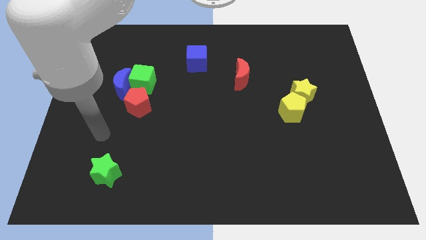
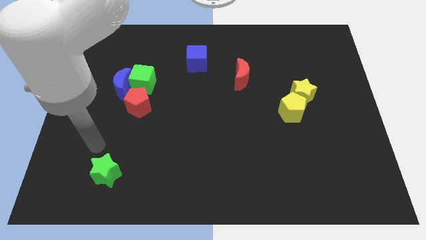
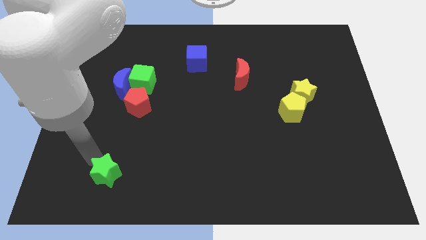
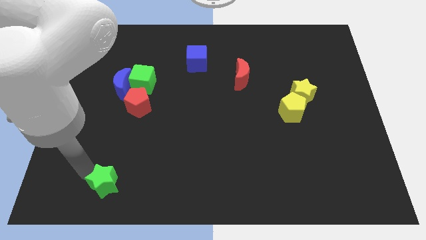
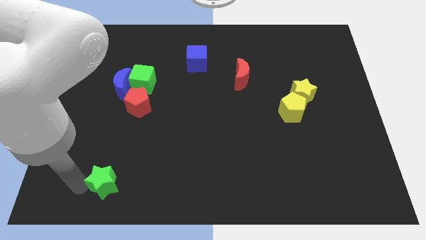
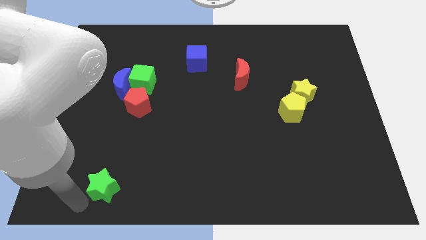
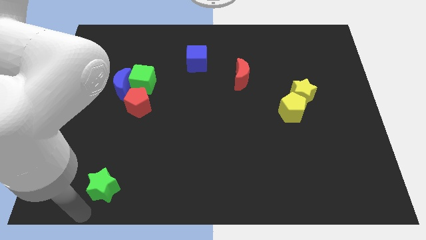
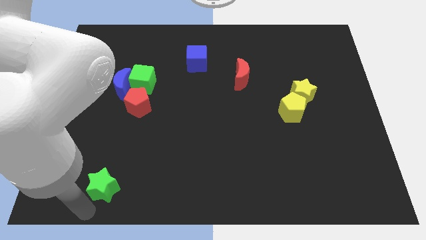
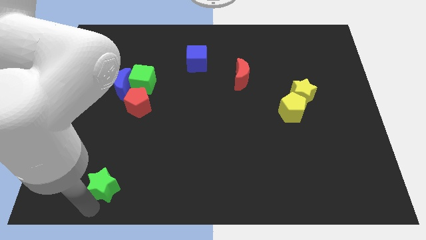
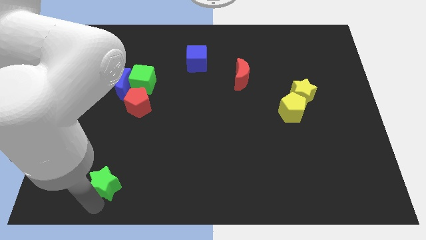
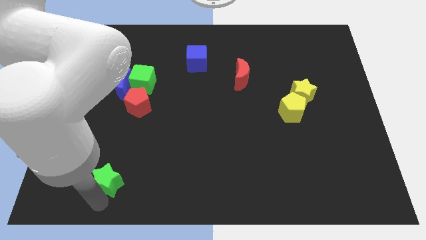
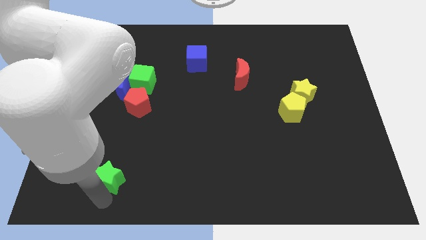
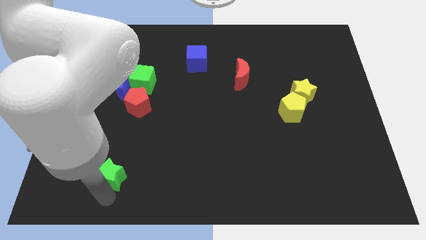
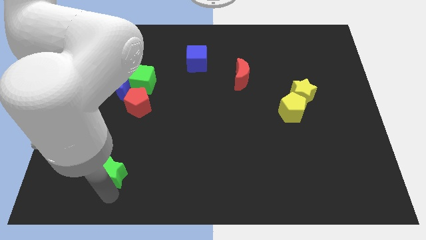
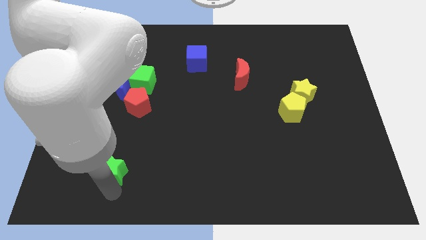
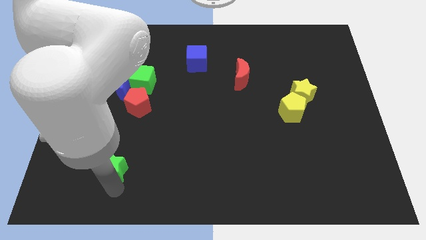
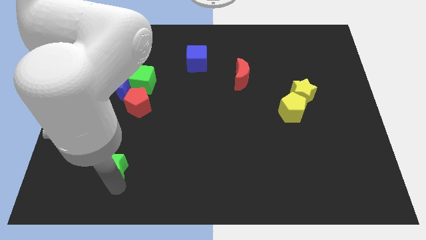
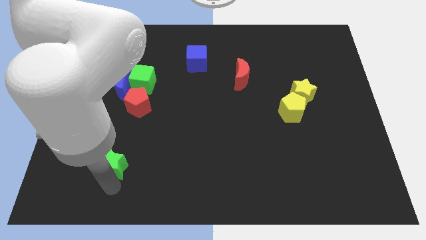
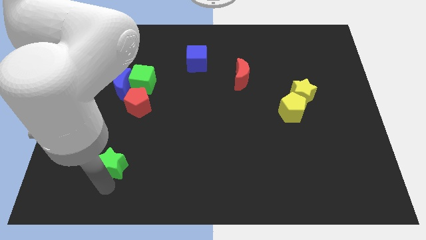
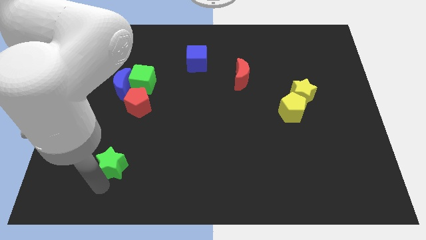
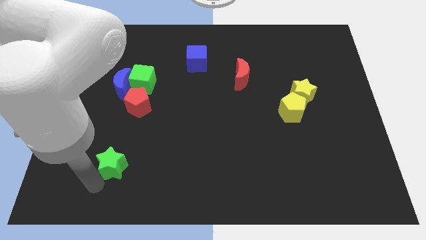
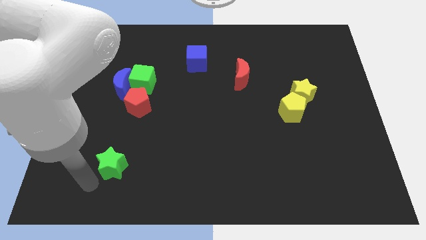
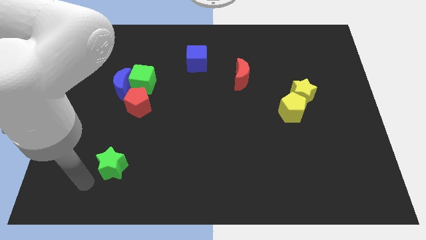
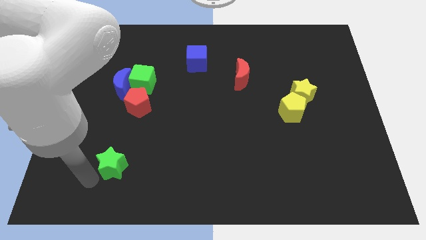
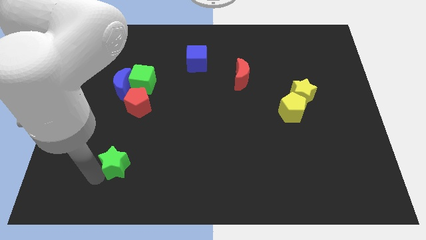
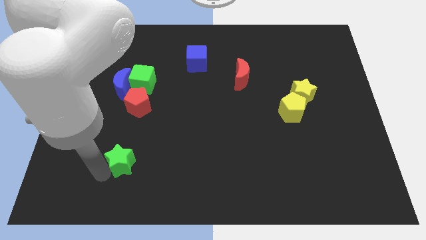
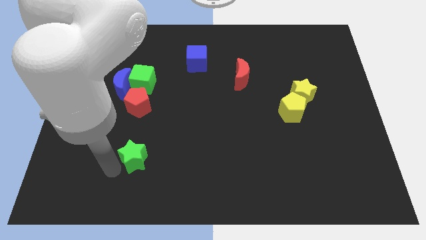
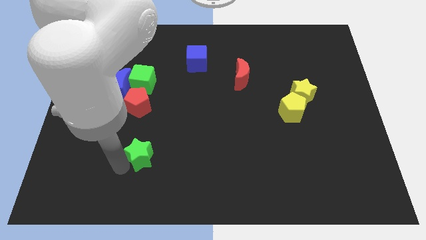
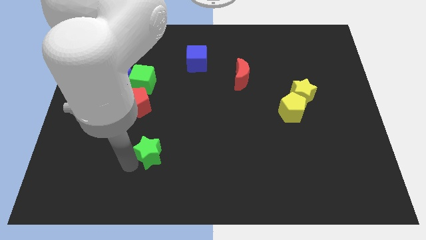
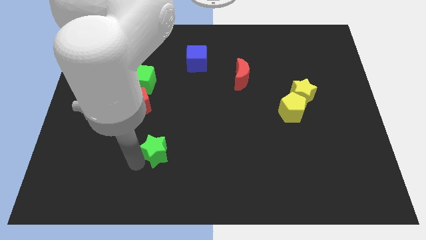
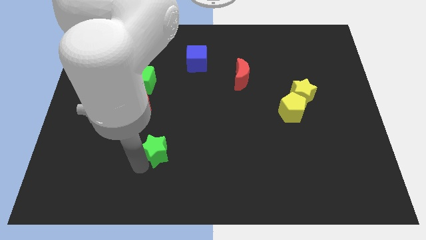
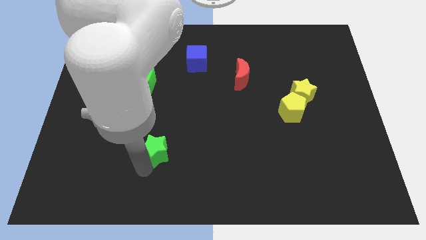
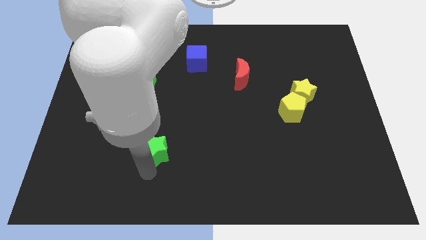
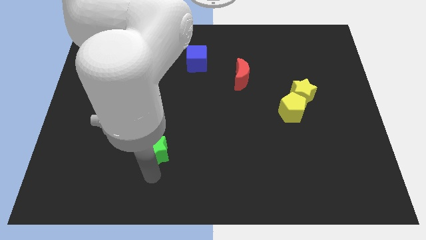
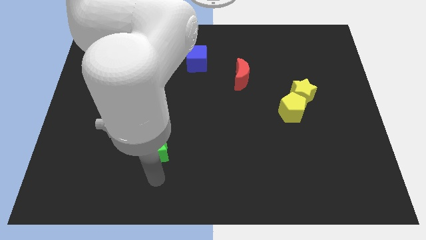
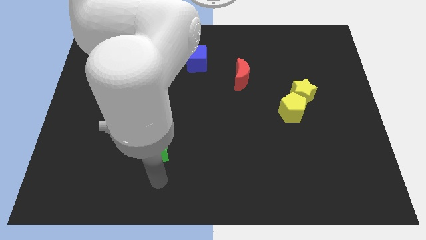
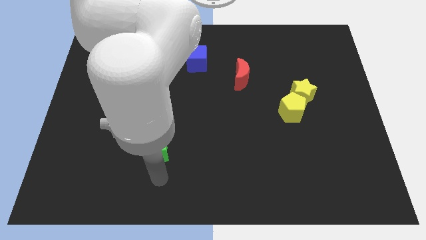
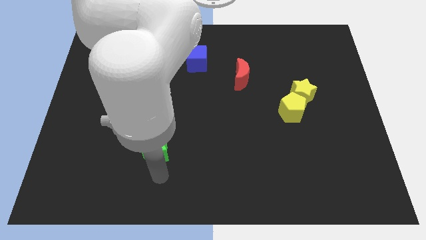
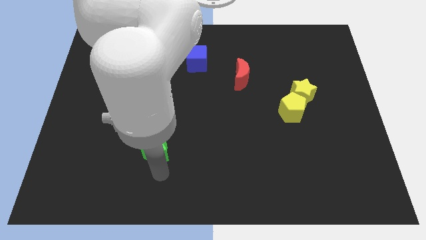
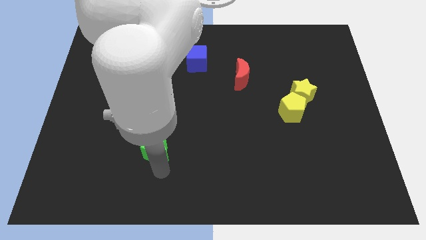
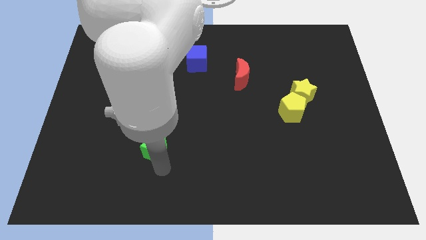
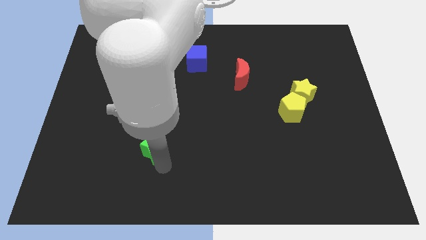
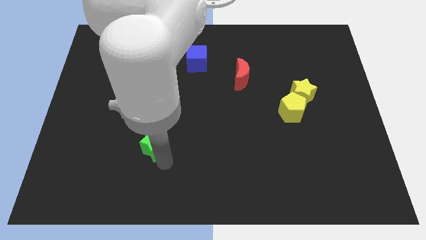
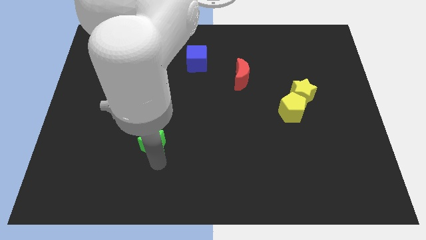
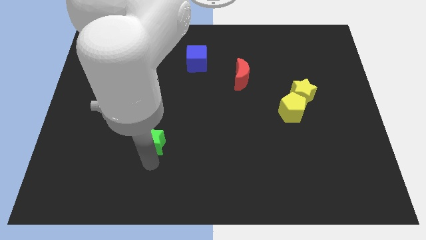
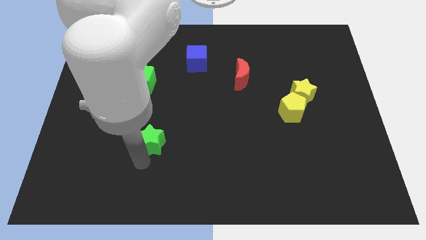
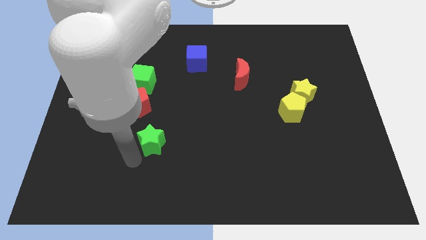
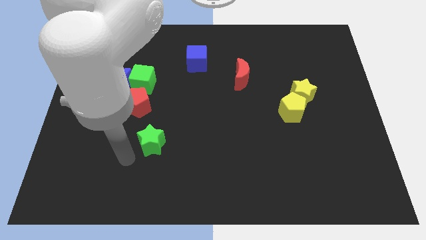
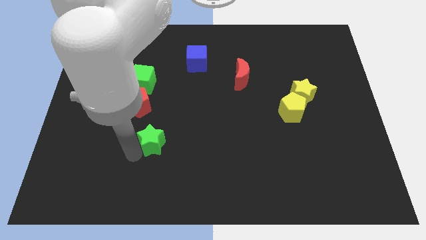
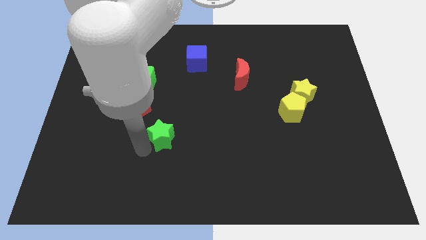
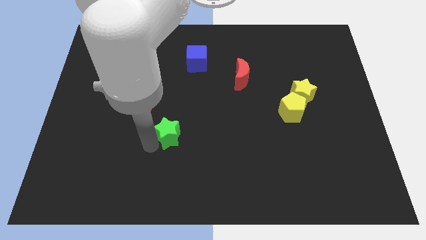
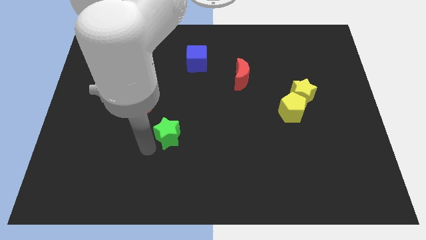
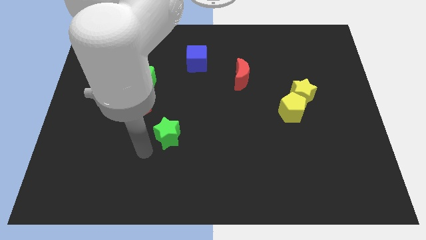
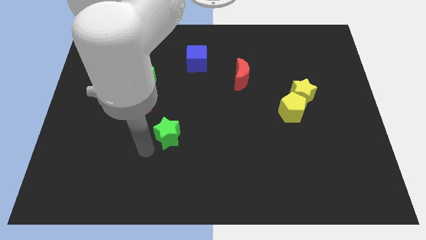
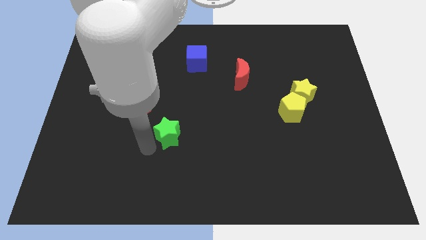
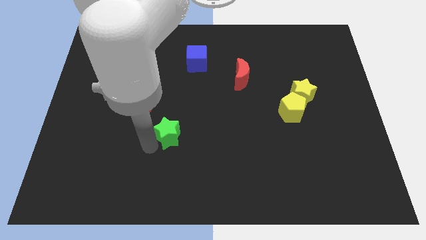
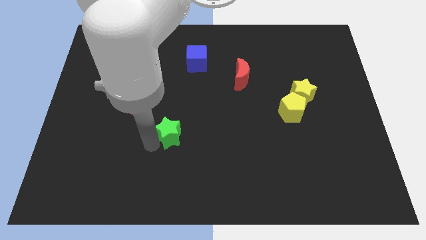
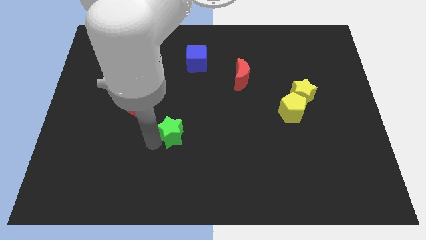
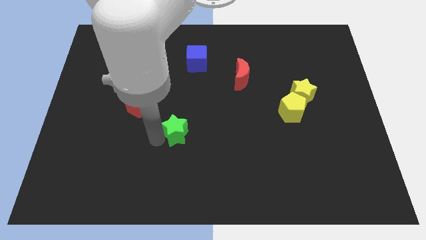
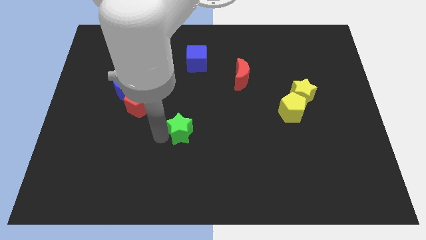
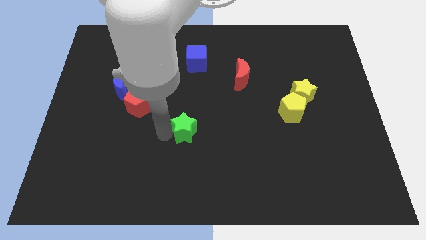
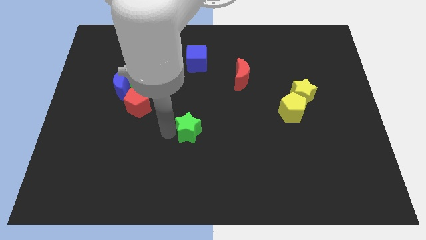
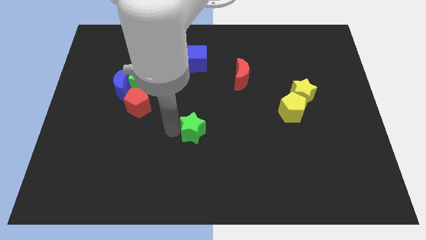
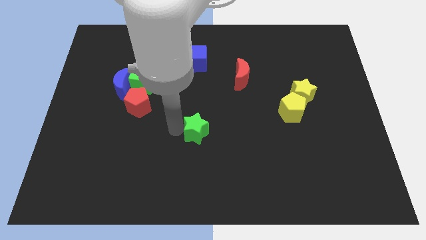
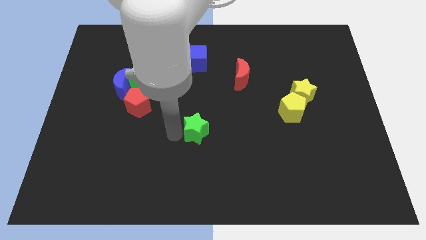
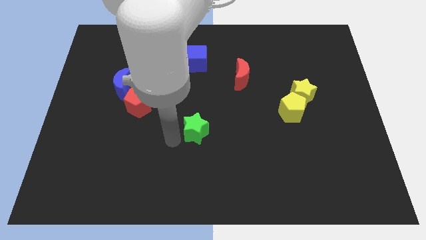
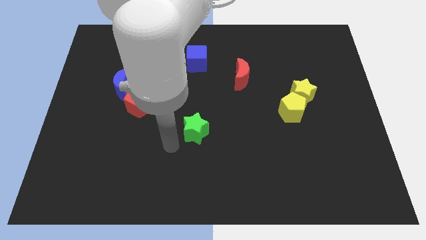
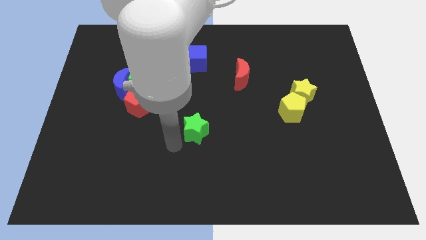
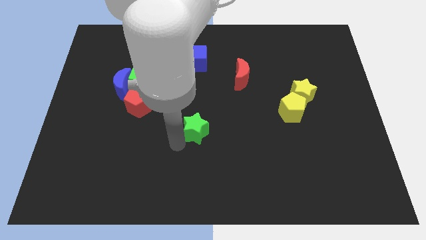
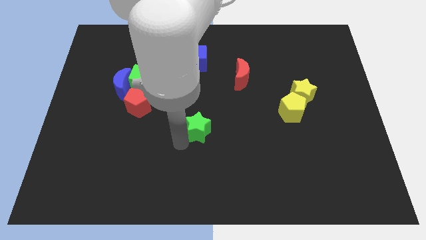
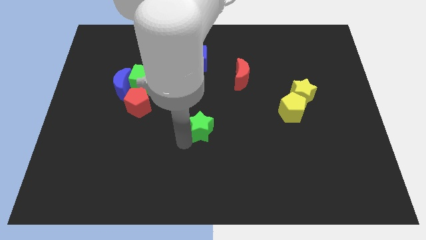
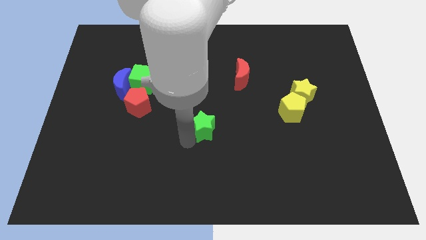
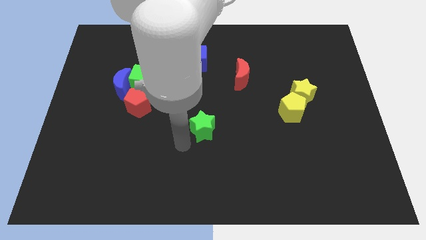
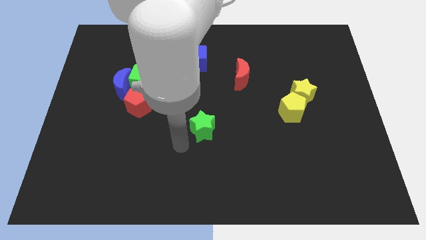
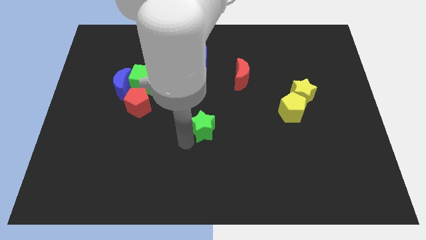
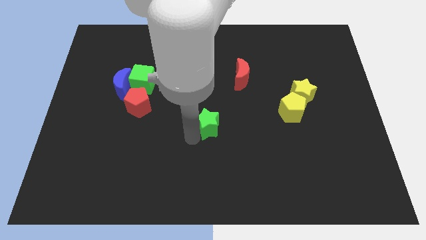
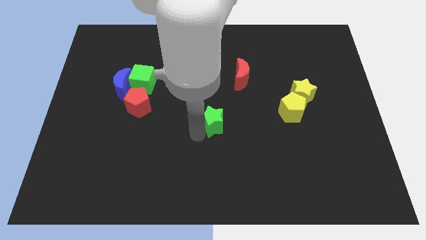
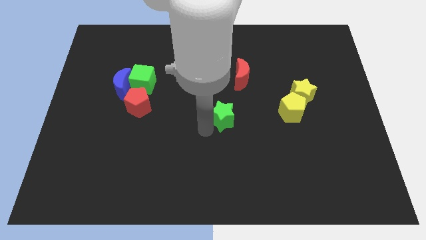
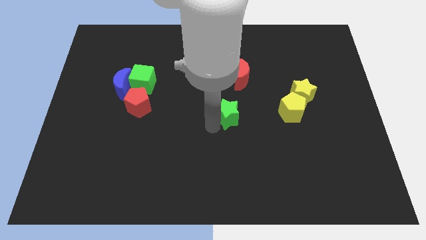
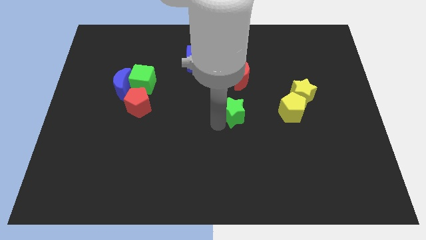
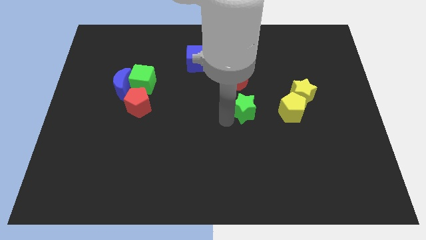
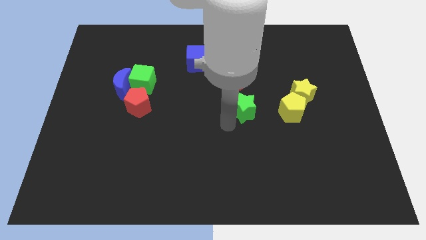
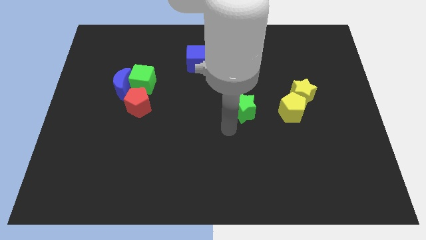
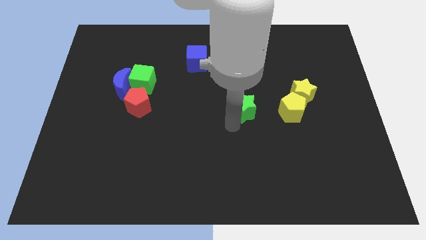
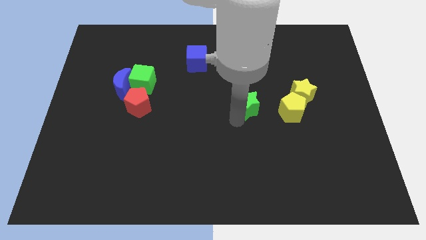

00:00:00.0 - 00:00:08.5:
push the green star to the left of the yellow star
